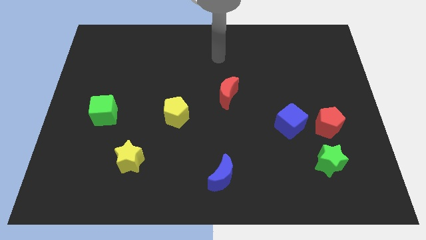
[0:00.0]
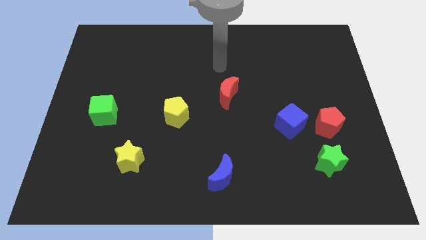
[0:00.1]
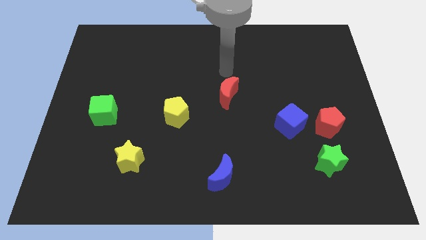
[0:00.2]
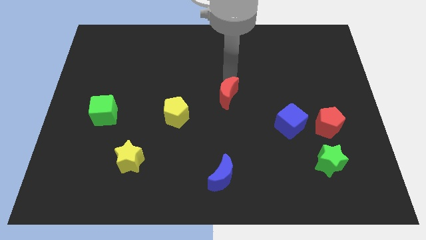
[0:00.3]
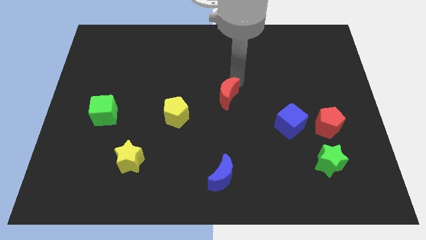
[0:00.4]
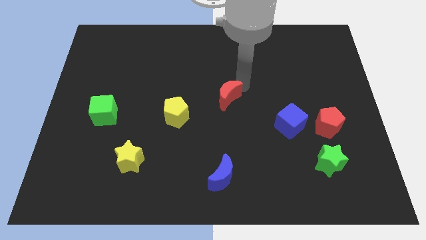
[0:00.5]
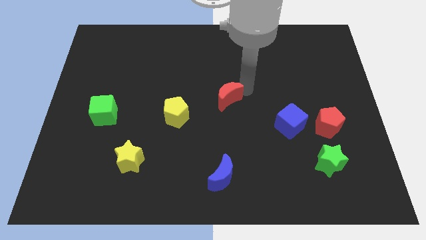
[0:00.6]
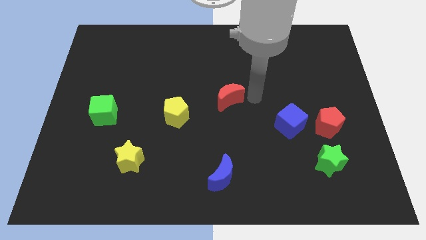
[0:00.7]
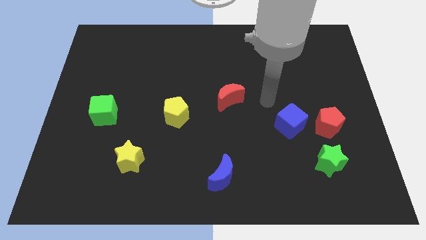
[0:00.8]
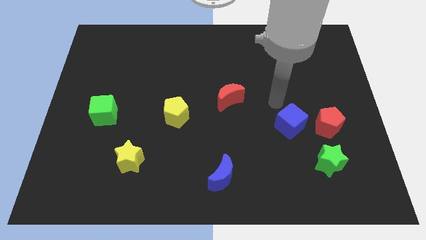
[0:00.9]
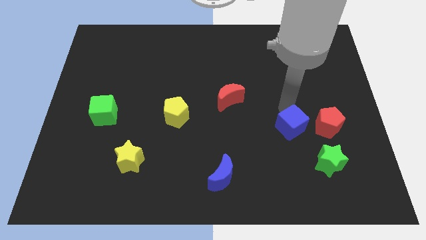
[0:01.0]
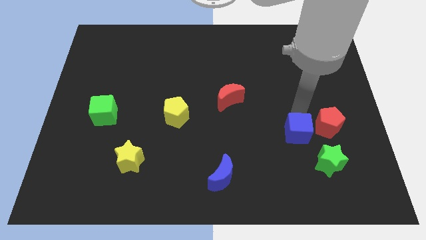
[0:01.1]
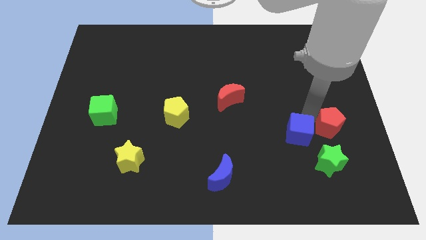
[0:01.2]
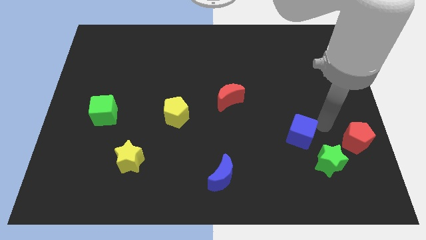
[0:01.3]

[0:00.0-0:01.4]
separate the blue cube from the red pentagon

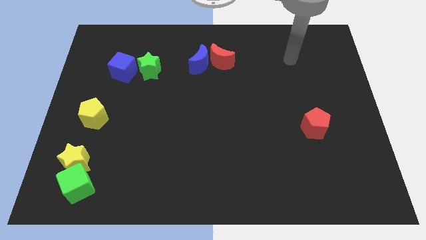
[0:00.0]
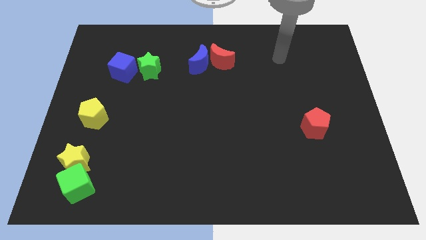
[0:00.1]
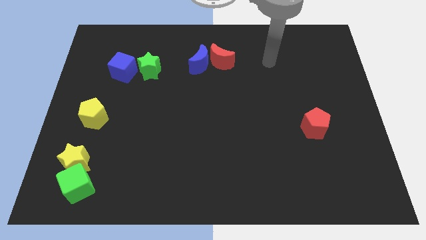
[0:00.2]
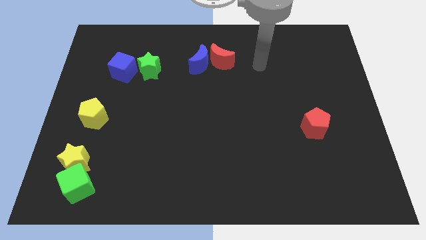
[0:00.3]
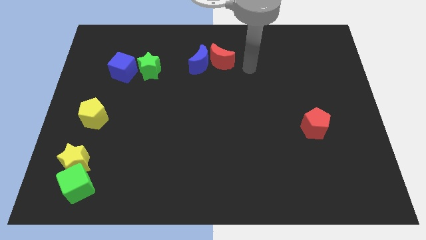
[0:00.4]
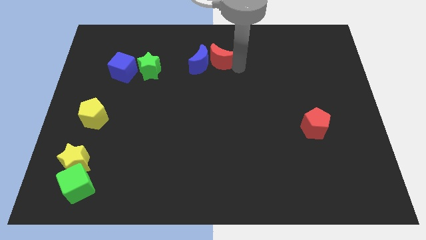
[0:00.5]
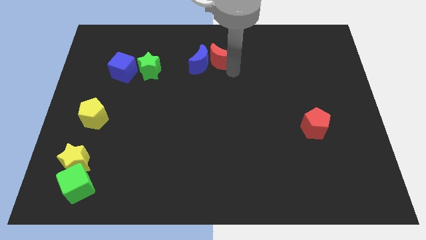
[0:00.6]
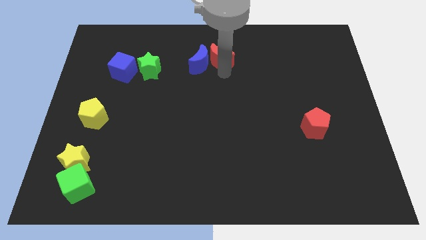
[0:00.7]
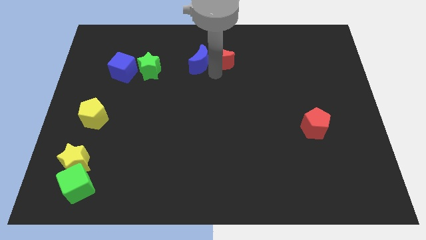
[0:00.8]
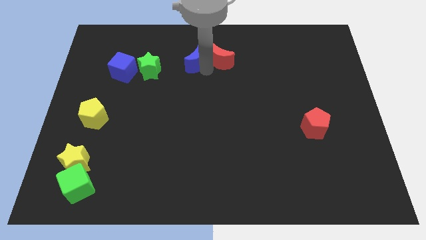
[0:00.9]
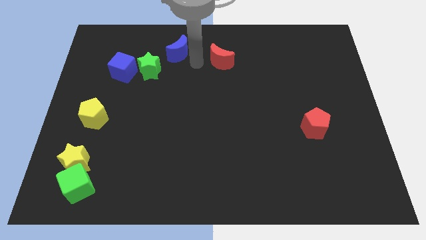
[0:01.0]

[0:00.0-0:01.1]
separate the red moon from the blue moon

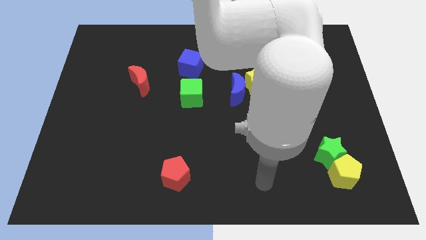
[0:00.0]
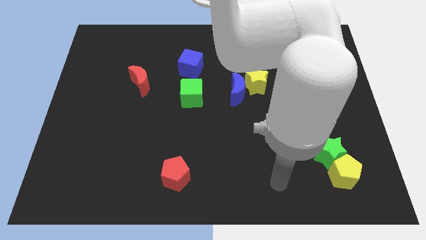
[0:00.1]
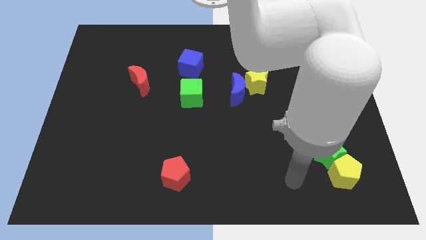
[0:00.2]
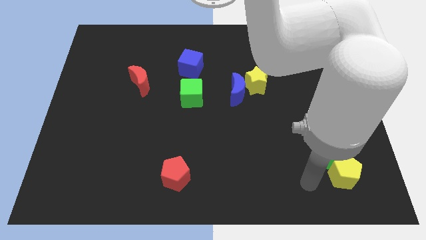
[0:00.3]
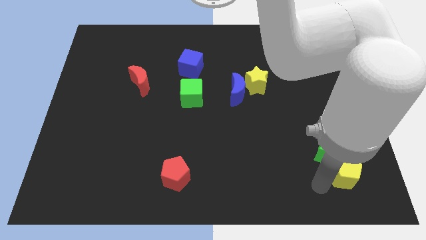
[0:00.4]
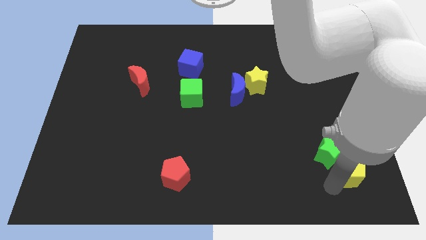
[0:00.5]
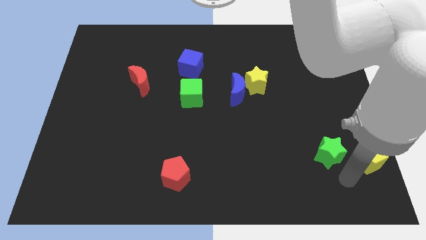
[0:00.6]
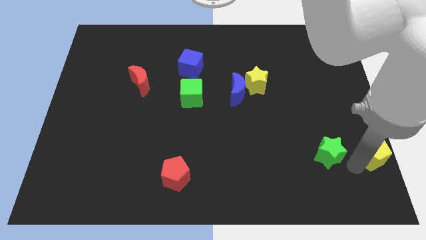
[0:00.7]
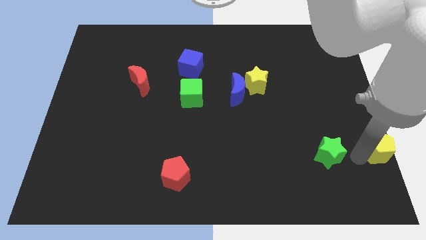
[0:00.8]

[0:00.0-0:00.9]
move the green star away from the yellow pentagon

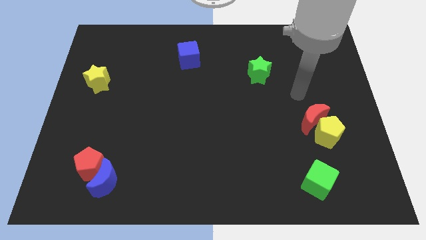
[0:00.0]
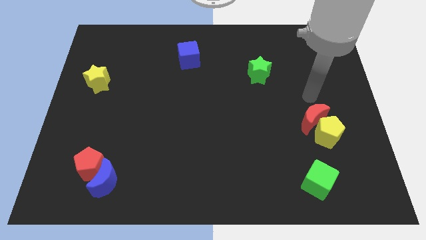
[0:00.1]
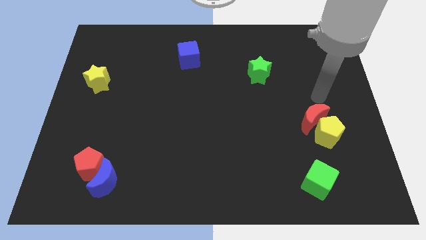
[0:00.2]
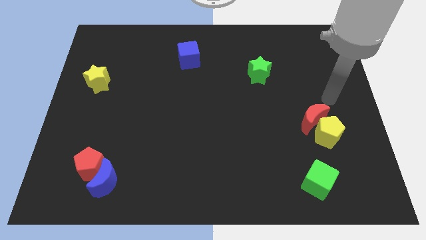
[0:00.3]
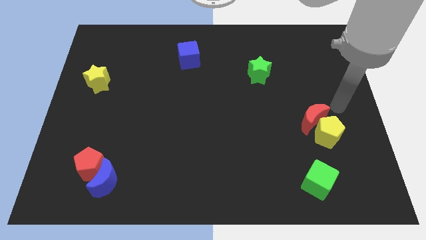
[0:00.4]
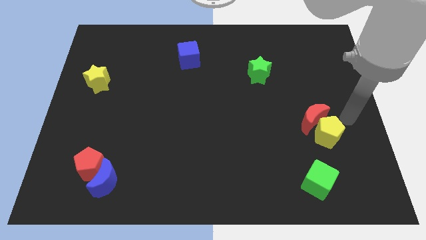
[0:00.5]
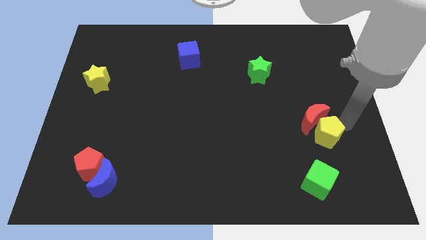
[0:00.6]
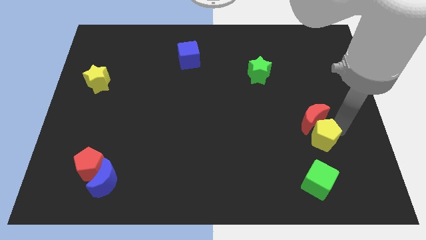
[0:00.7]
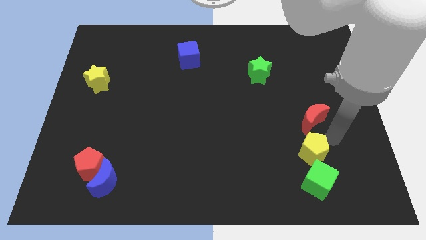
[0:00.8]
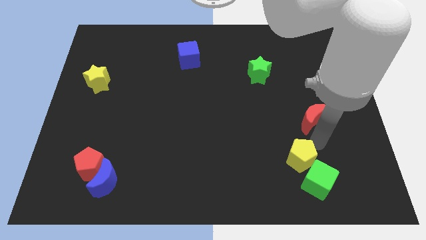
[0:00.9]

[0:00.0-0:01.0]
separate the red moon from the yellow pentagon

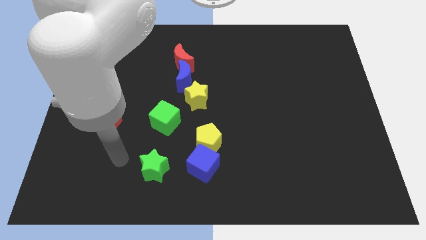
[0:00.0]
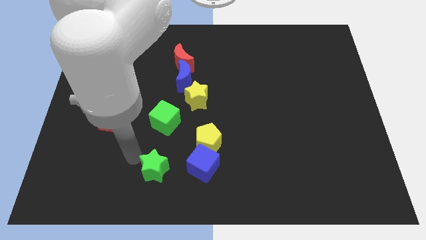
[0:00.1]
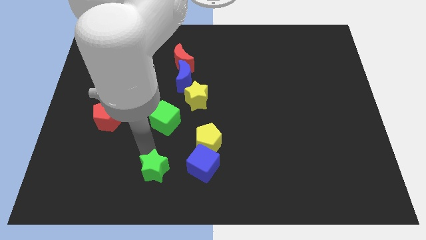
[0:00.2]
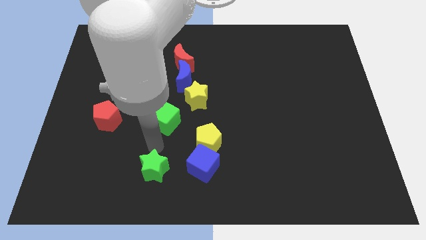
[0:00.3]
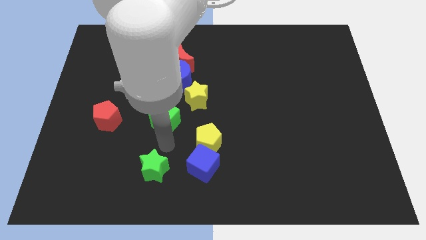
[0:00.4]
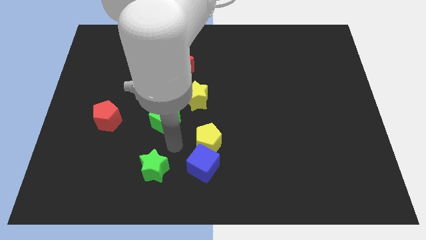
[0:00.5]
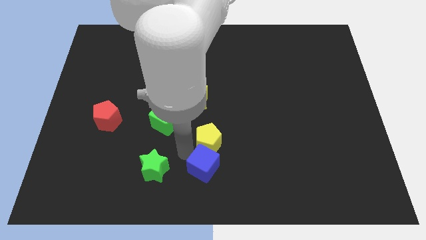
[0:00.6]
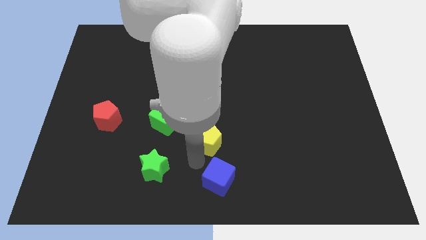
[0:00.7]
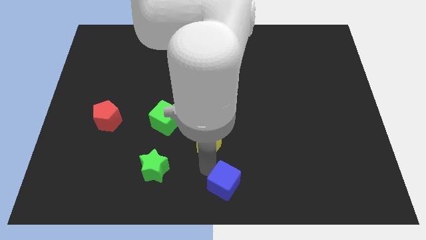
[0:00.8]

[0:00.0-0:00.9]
pull the yellow pentagon apart from the blue cube

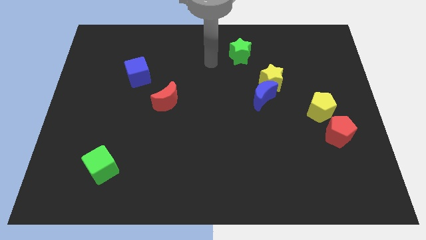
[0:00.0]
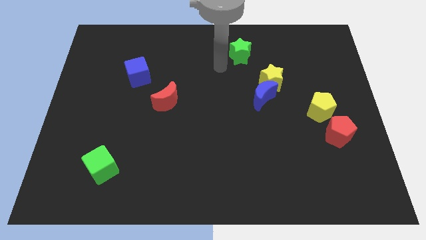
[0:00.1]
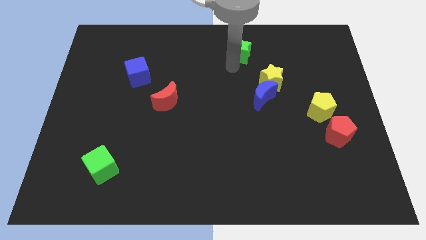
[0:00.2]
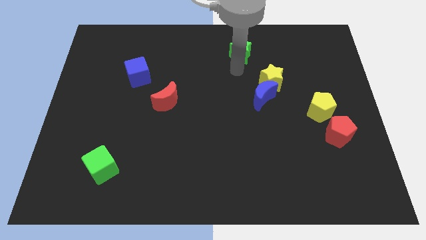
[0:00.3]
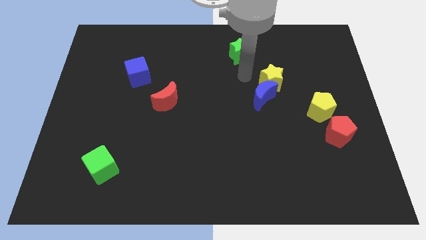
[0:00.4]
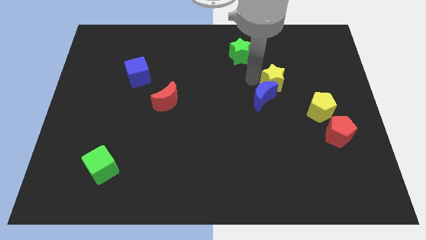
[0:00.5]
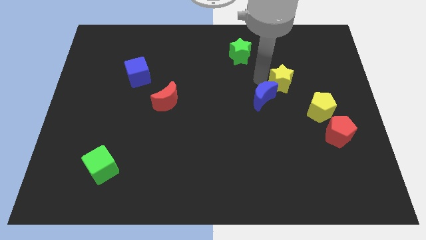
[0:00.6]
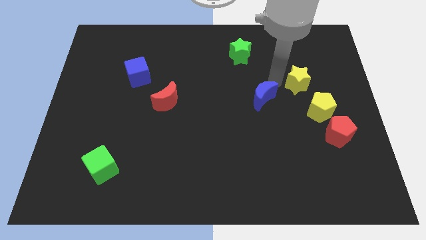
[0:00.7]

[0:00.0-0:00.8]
pull the blue moon apart from the yellow star

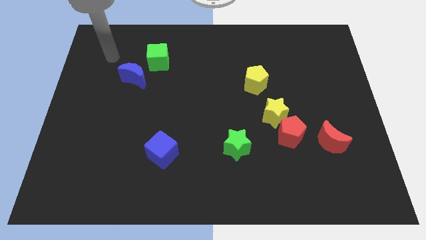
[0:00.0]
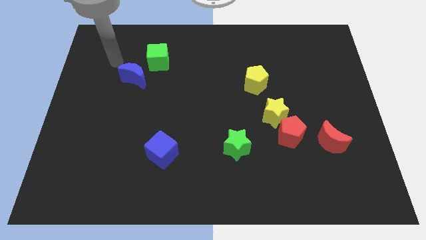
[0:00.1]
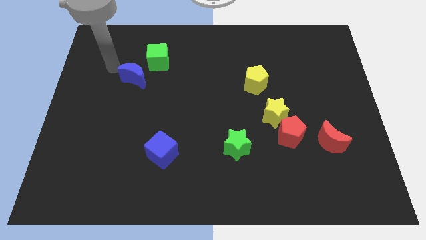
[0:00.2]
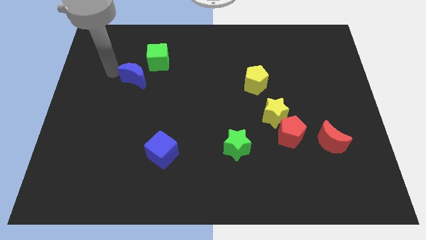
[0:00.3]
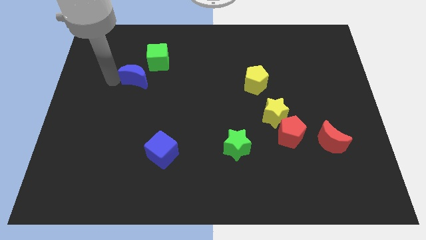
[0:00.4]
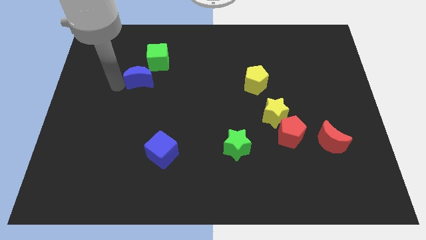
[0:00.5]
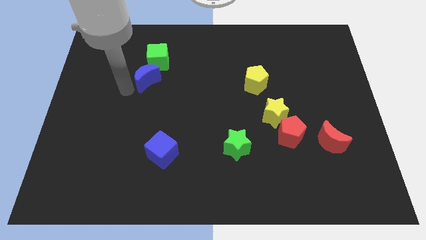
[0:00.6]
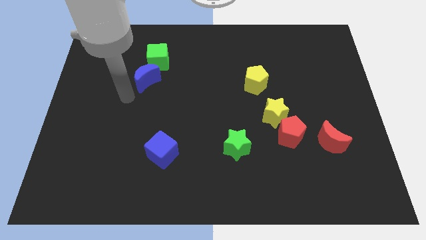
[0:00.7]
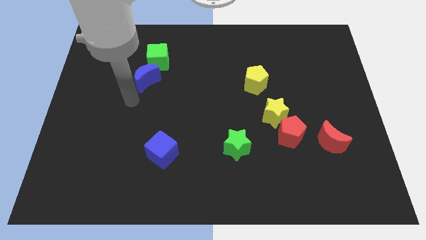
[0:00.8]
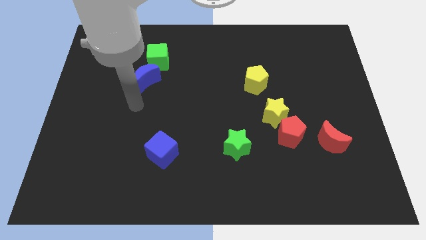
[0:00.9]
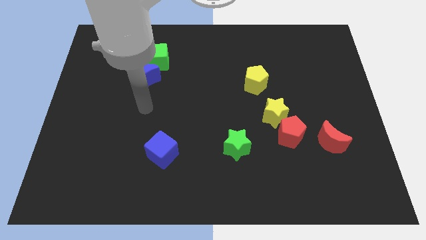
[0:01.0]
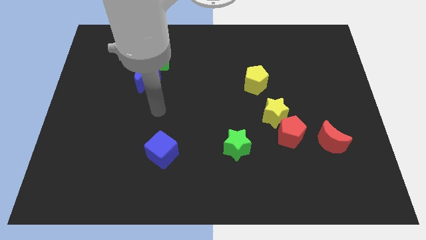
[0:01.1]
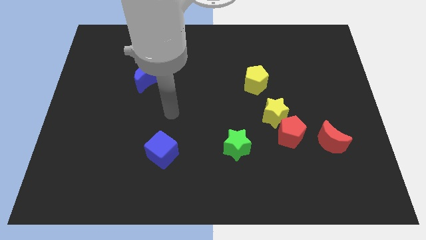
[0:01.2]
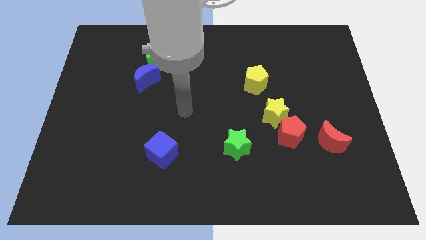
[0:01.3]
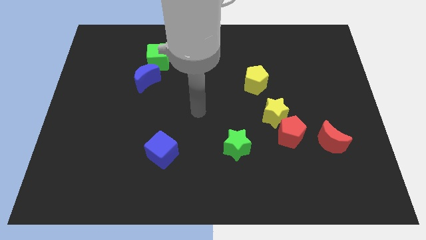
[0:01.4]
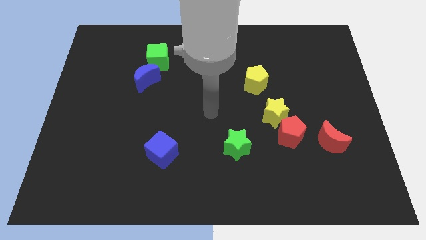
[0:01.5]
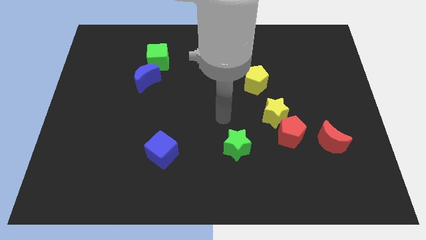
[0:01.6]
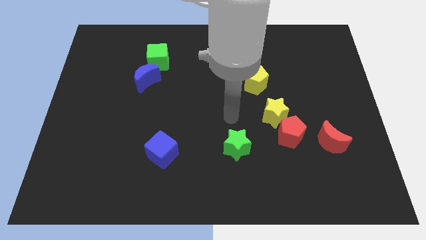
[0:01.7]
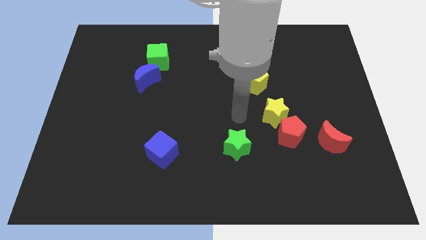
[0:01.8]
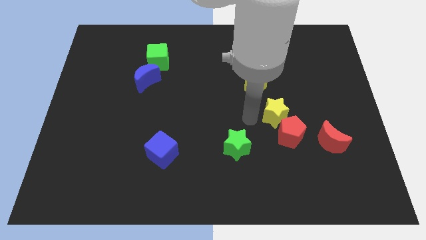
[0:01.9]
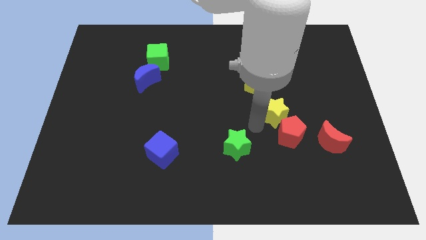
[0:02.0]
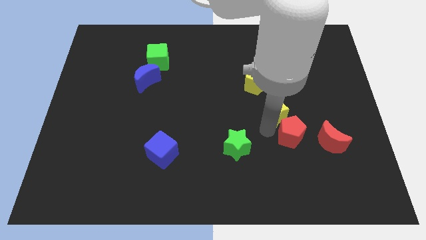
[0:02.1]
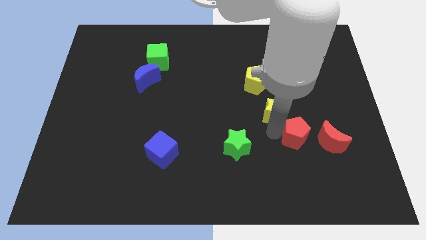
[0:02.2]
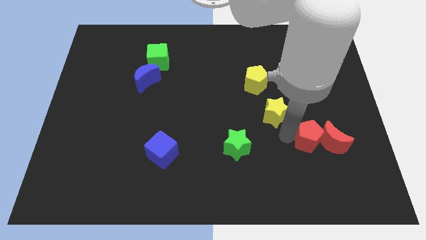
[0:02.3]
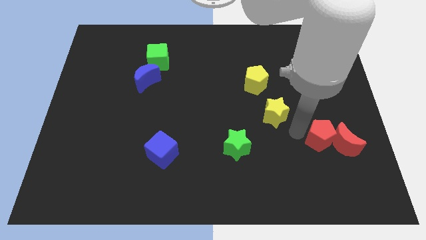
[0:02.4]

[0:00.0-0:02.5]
move the yellow star away from the red pentagon

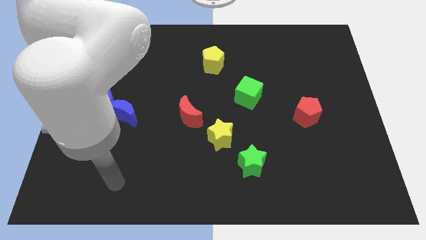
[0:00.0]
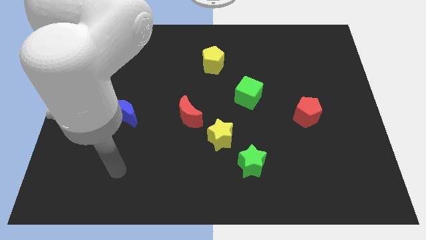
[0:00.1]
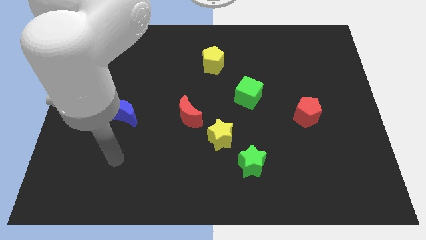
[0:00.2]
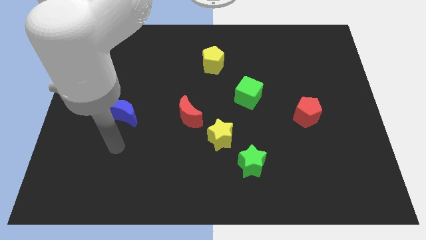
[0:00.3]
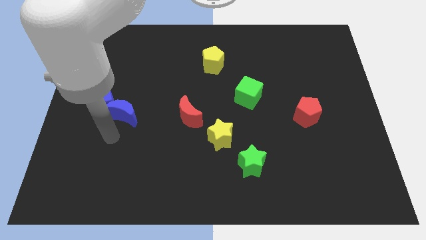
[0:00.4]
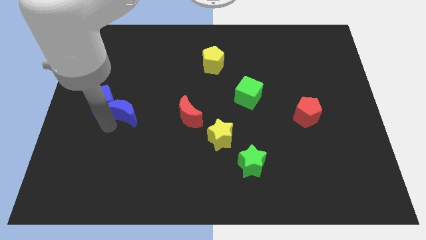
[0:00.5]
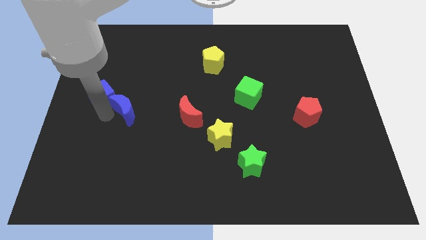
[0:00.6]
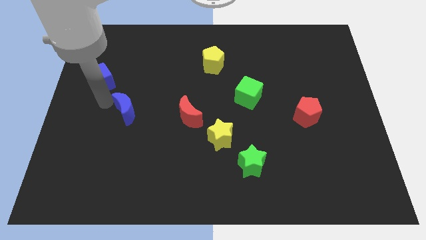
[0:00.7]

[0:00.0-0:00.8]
separate the blue moon from the blue cube
